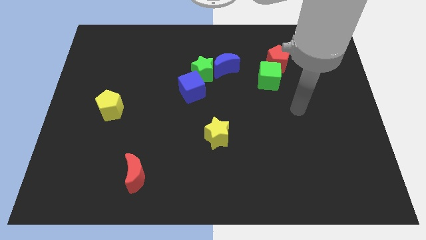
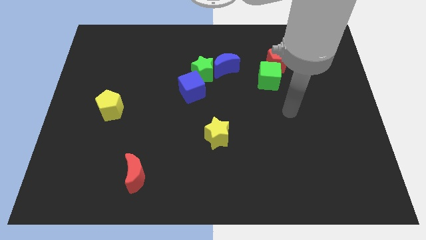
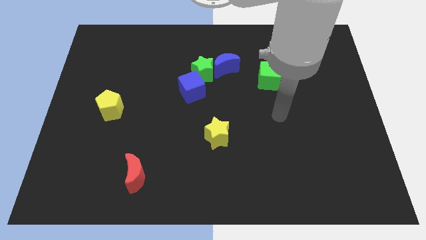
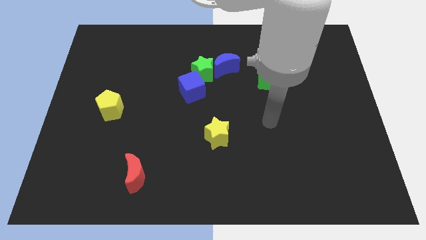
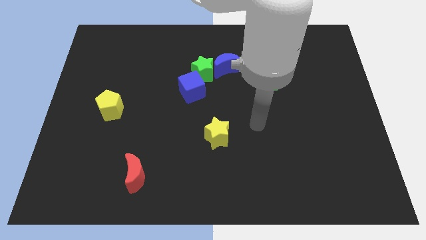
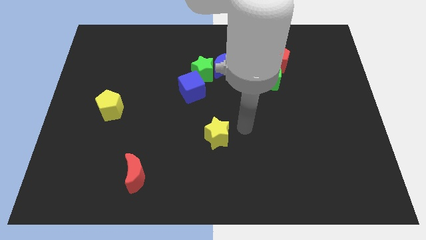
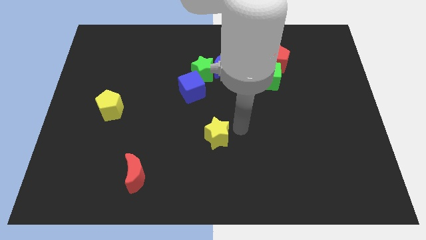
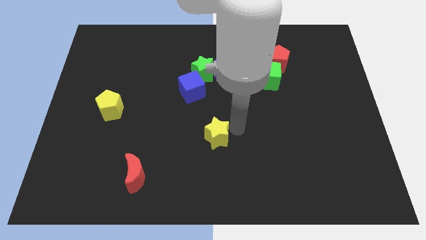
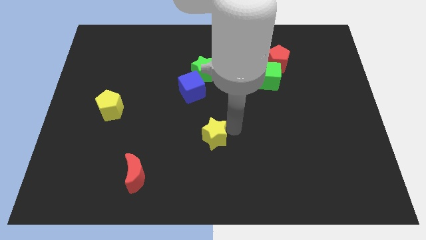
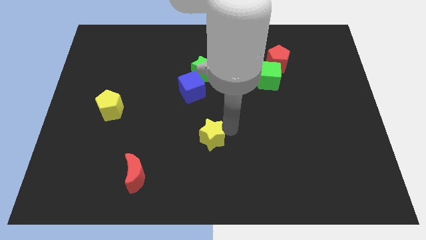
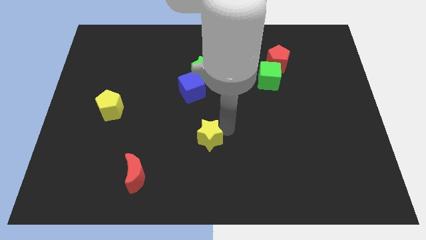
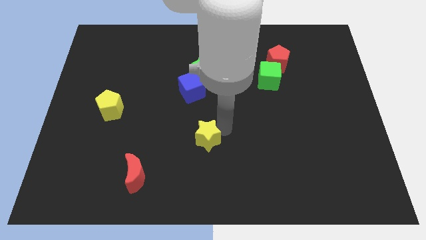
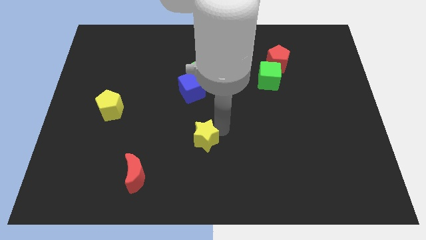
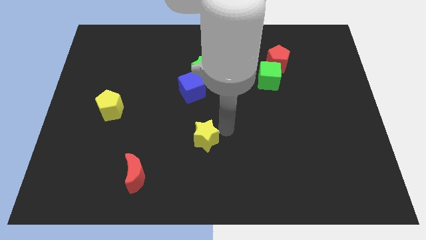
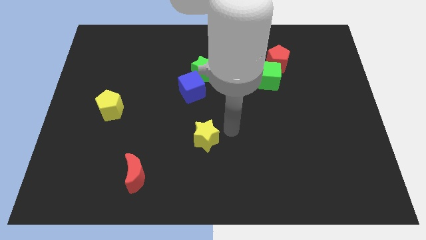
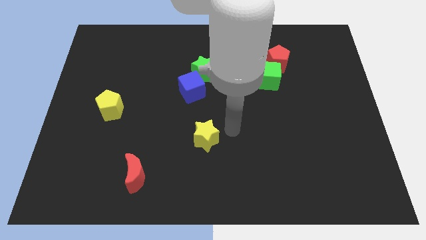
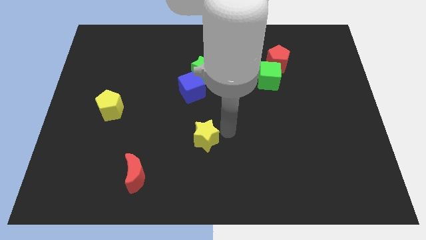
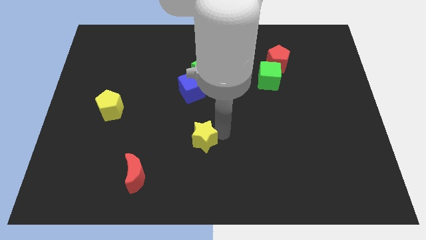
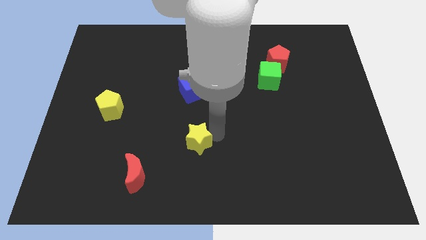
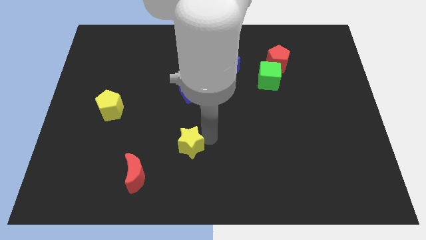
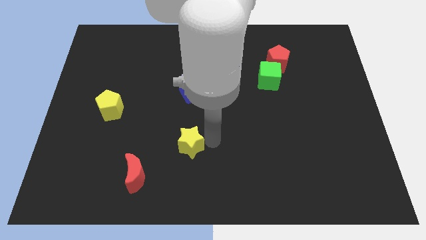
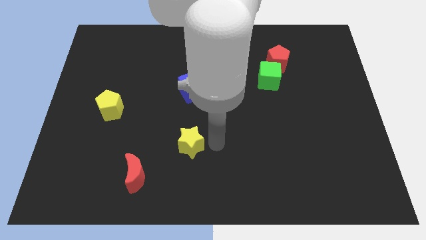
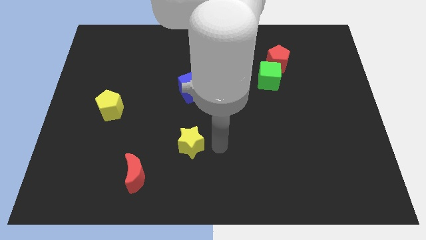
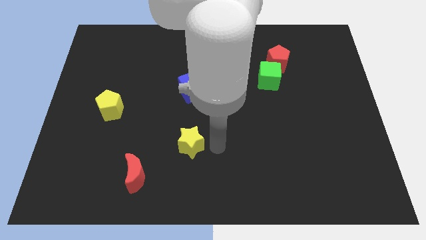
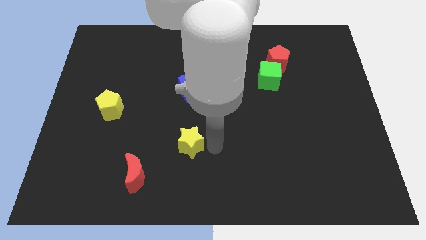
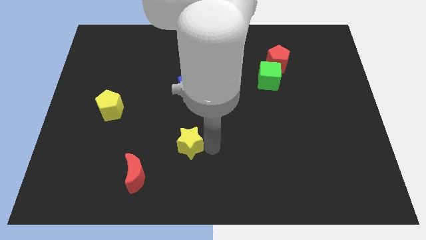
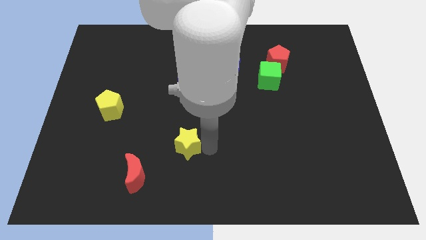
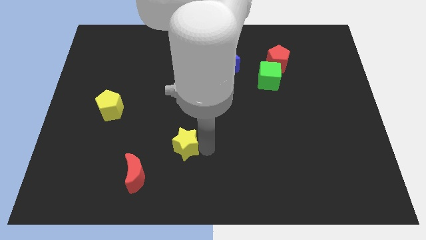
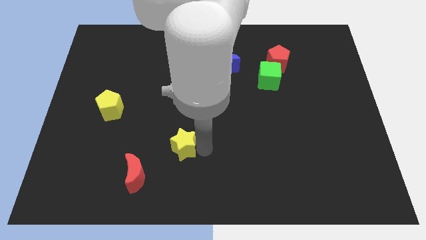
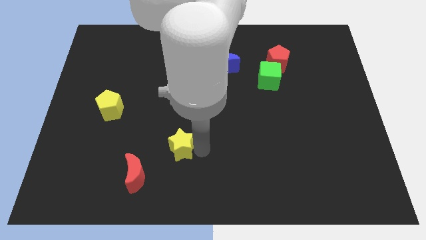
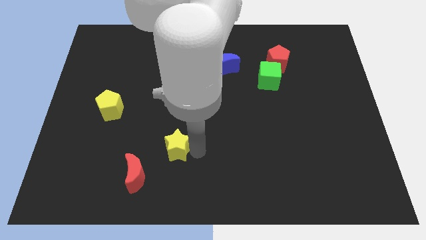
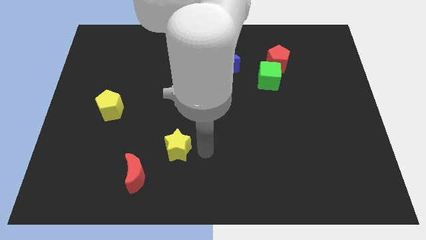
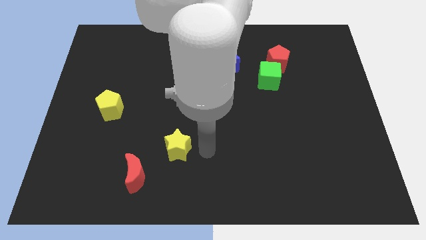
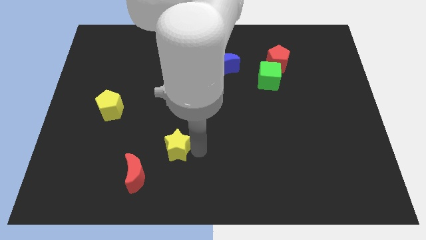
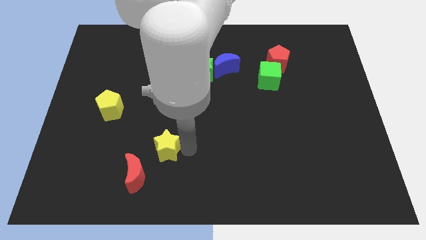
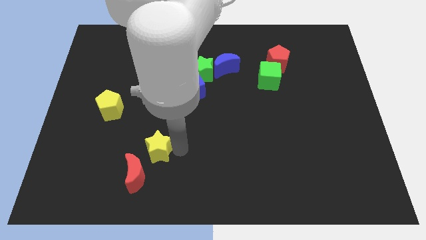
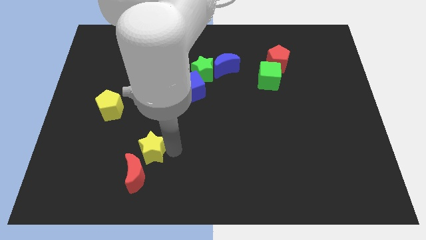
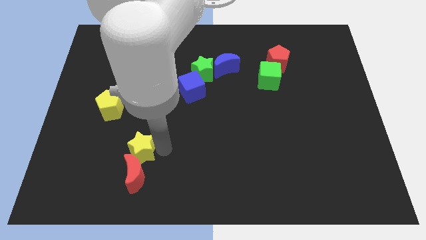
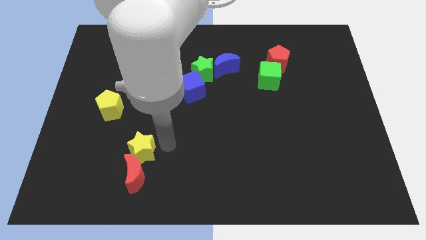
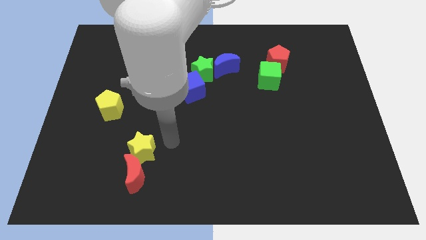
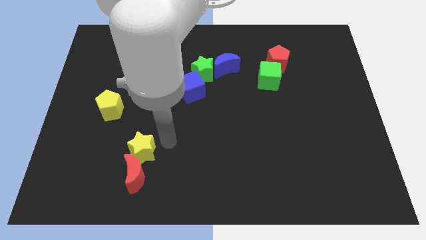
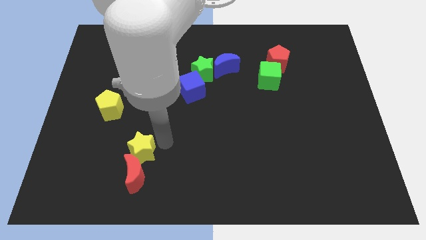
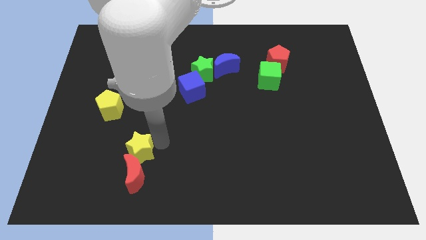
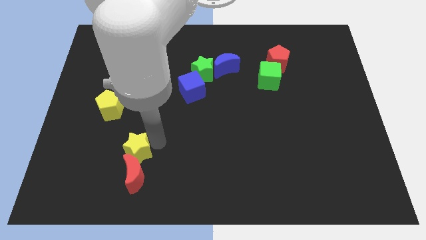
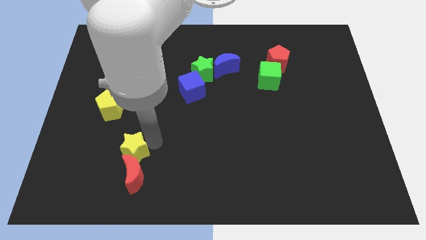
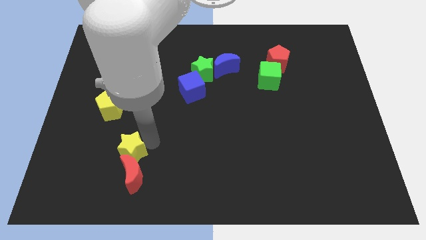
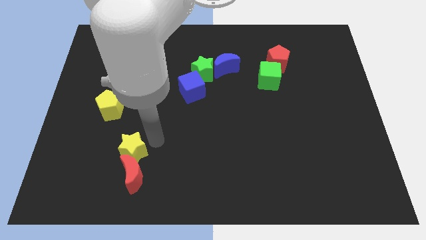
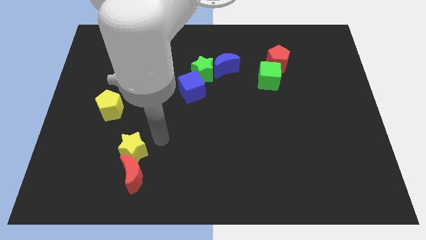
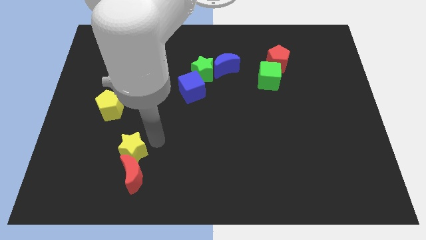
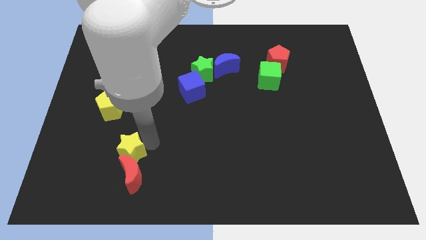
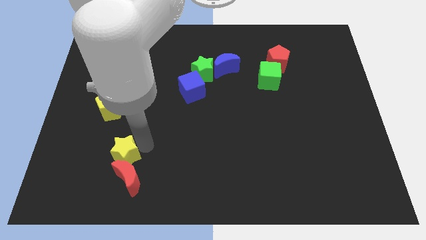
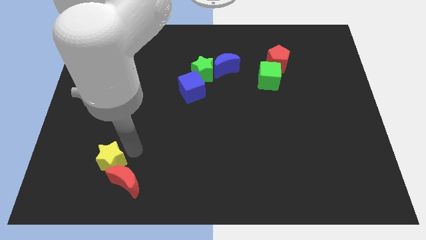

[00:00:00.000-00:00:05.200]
push the yellow star left of the red moon

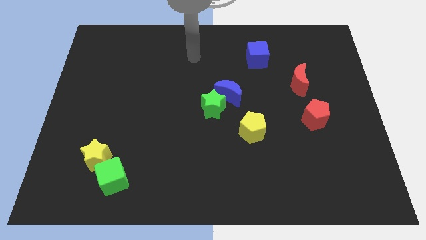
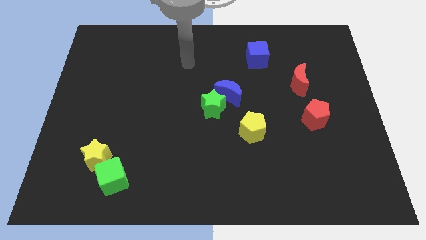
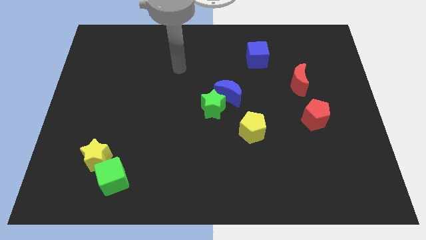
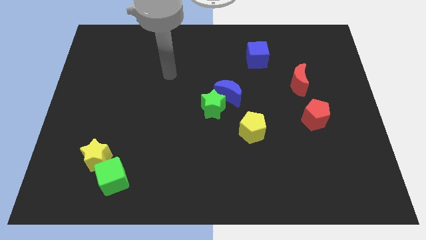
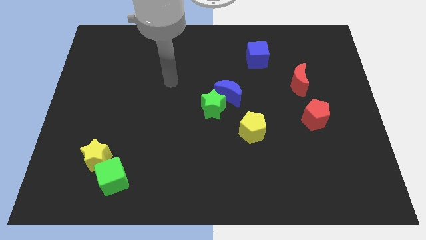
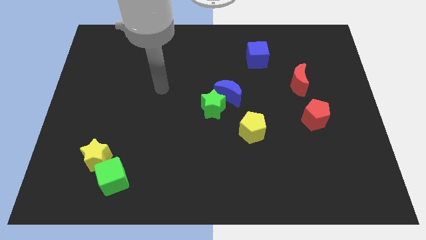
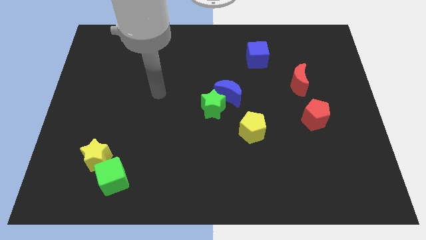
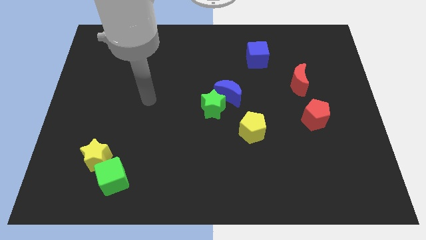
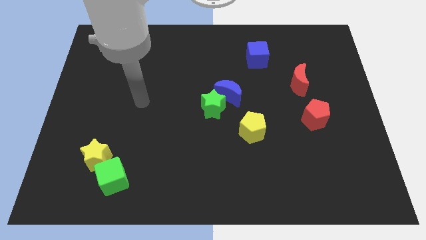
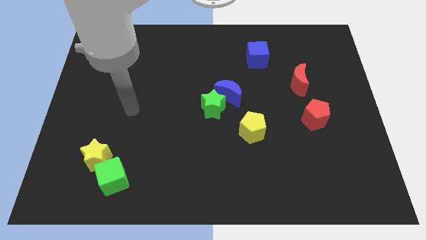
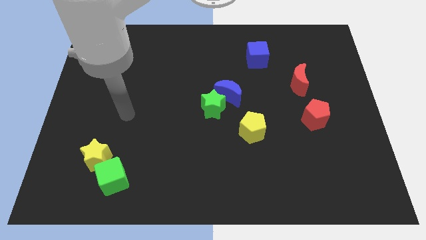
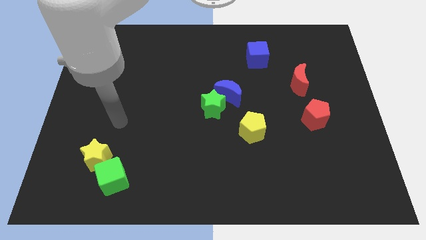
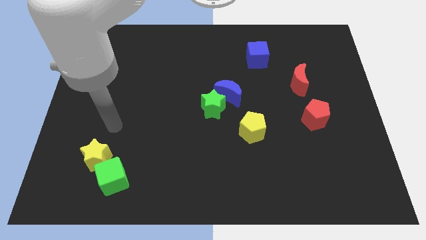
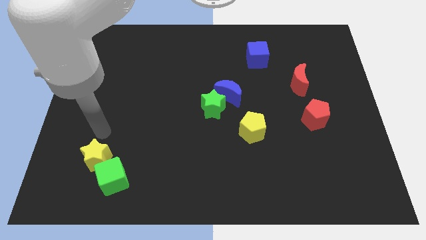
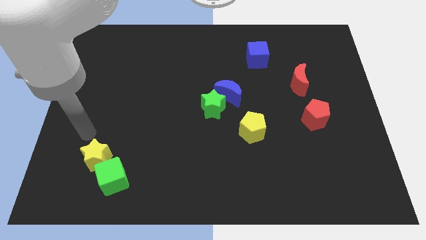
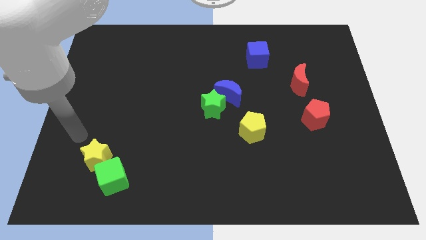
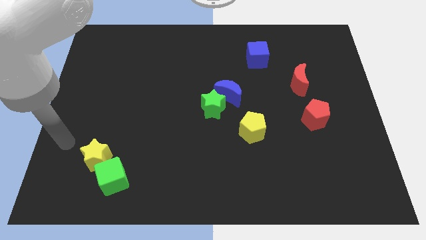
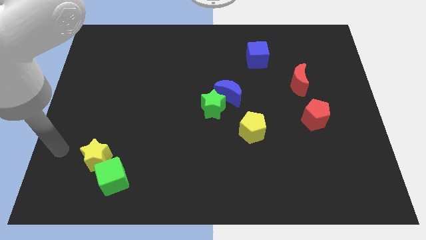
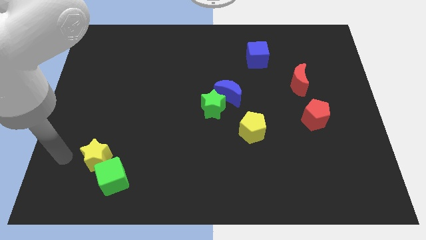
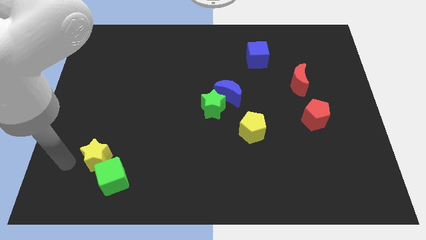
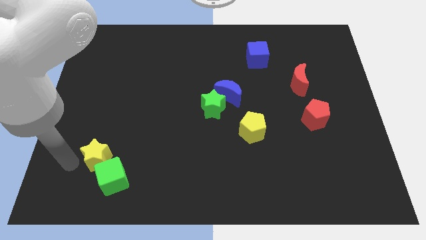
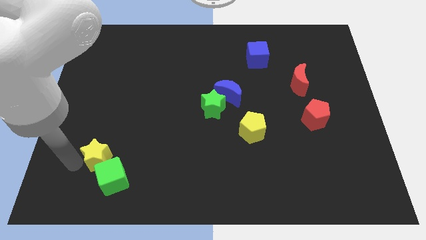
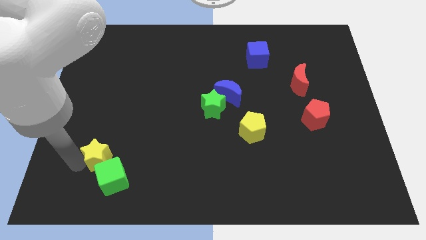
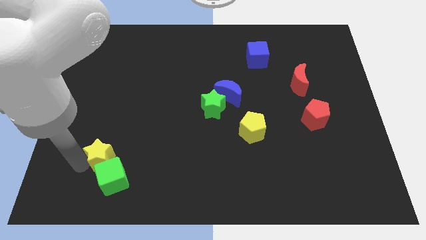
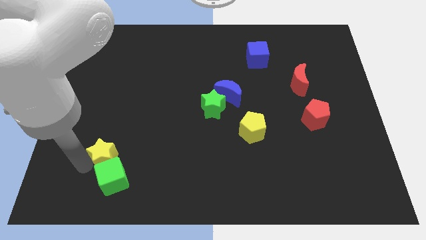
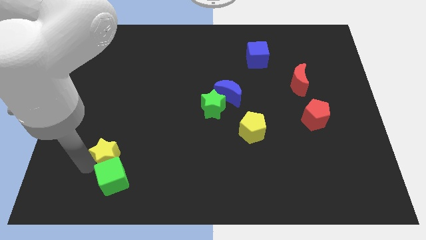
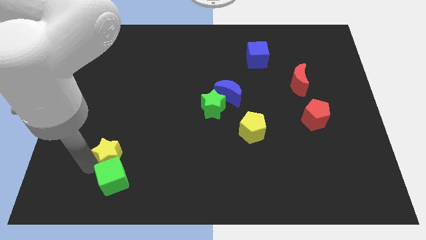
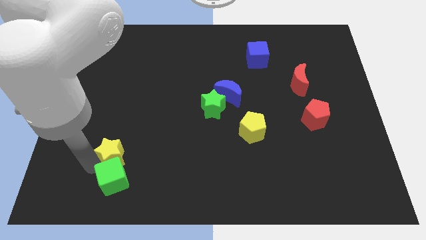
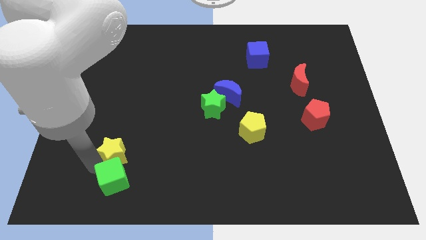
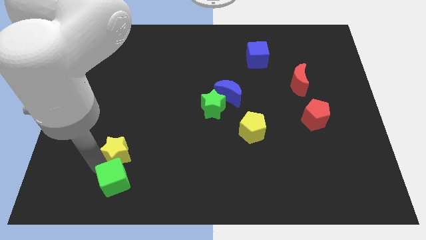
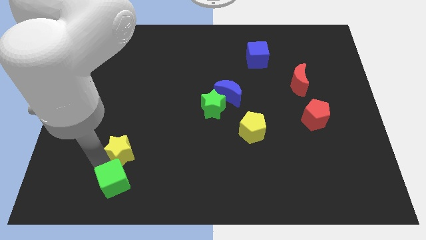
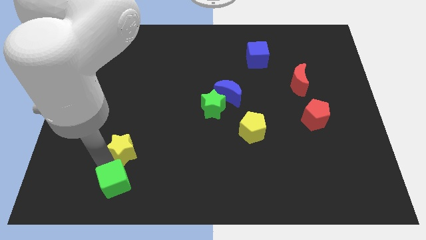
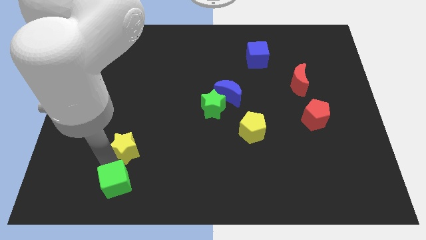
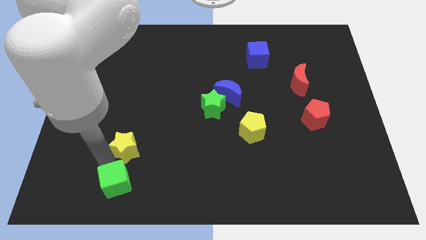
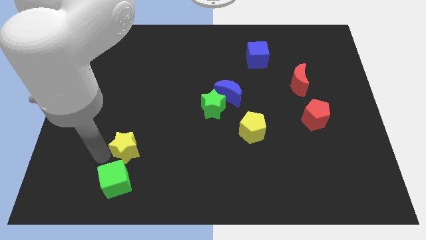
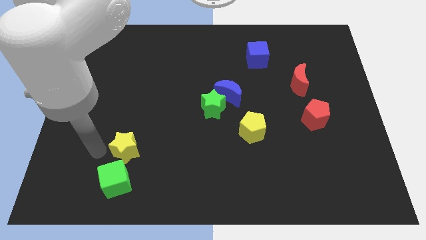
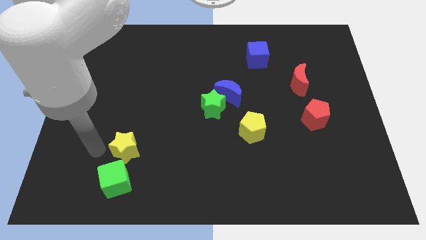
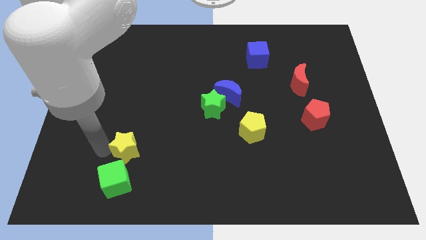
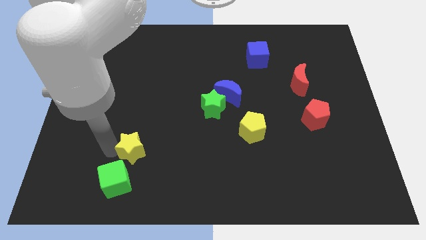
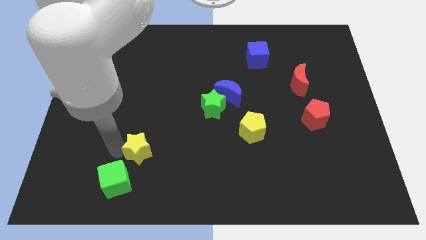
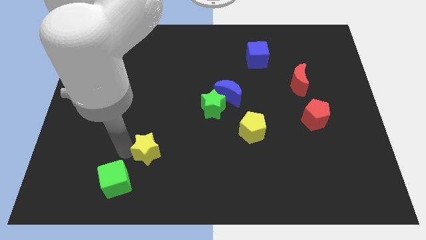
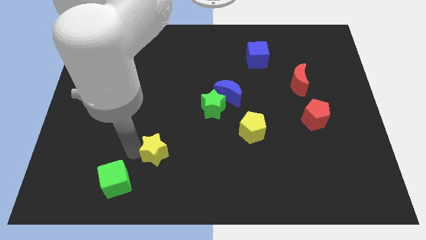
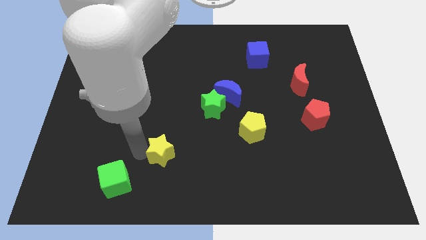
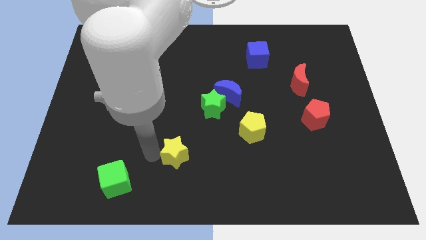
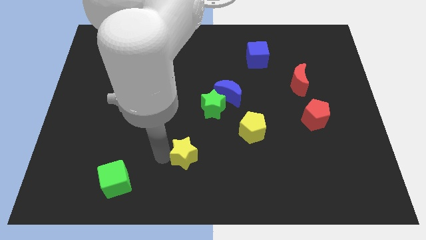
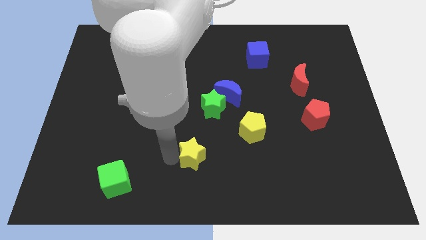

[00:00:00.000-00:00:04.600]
push the yellow star to the bottom side of the green star
